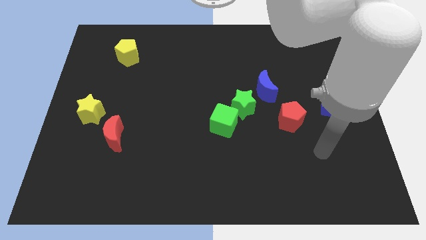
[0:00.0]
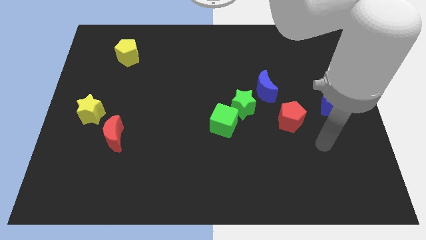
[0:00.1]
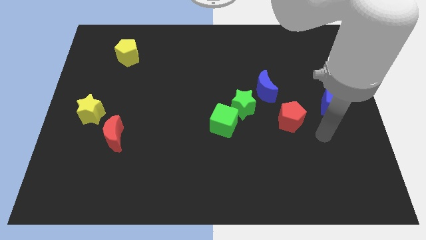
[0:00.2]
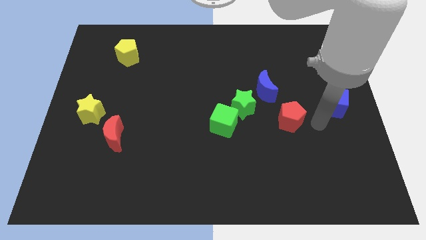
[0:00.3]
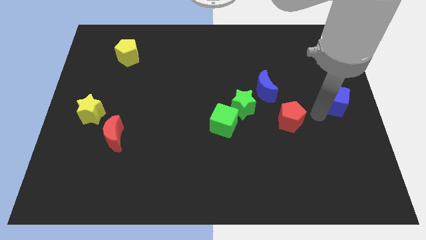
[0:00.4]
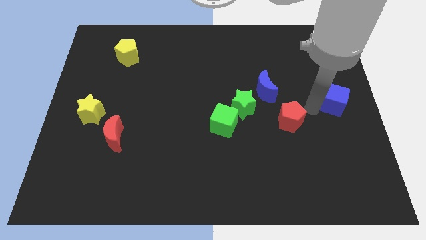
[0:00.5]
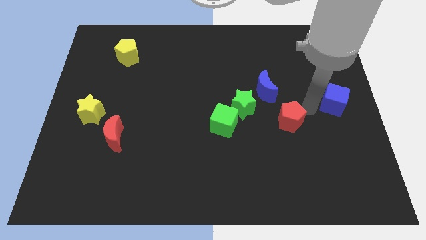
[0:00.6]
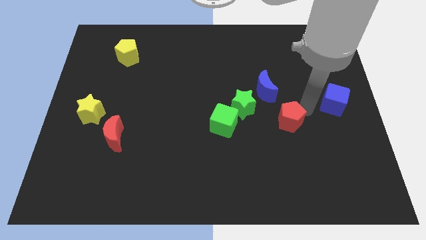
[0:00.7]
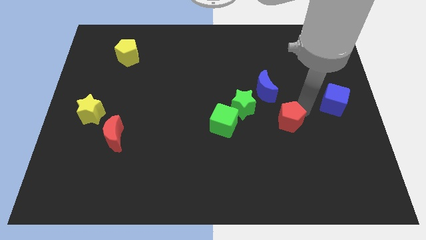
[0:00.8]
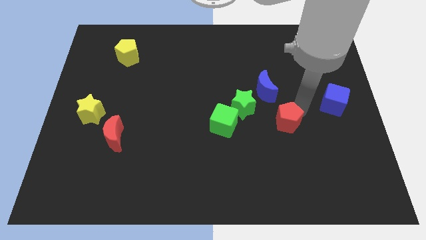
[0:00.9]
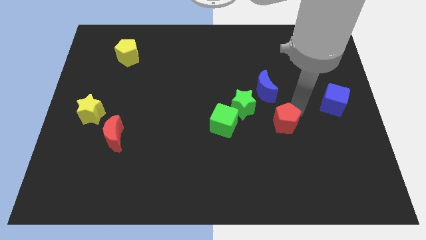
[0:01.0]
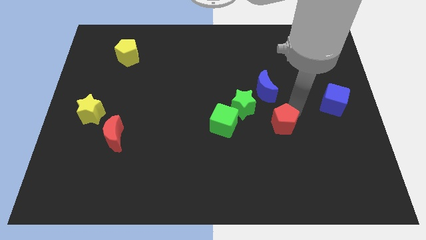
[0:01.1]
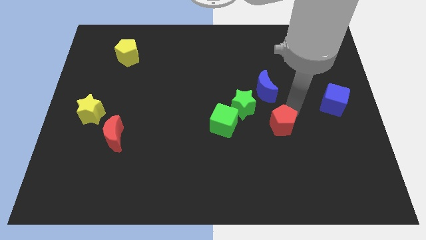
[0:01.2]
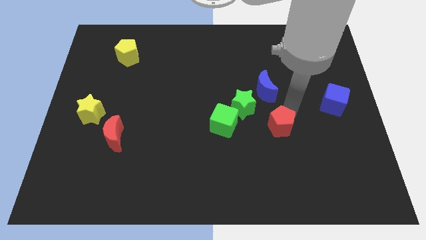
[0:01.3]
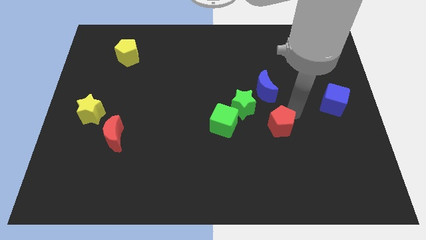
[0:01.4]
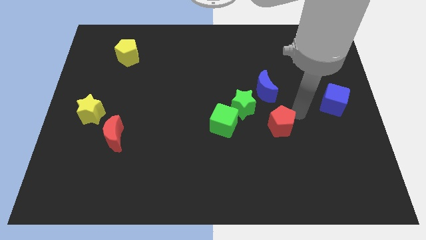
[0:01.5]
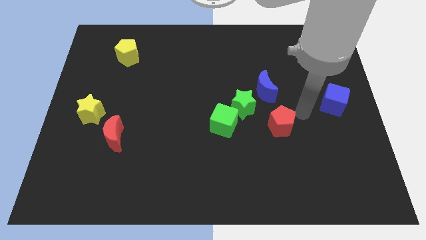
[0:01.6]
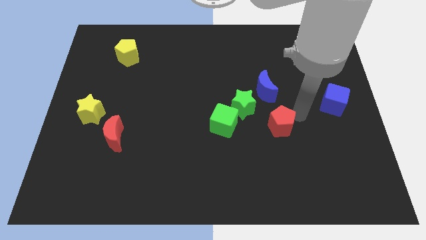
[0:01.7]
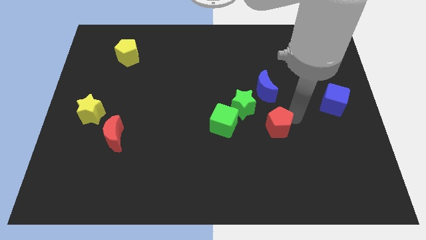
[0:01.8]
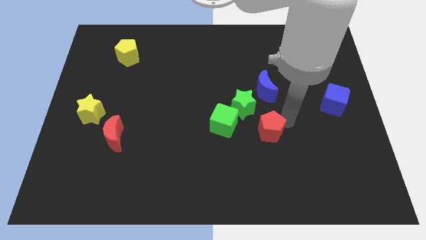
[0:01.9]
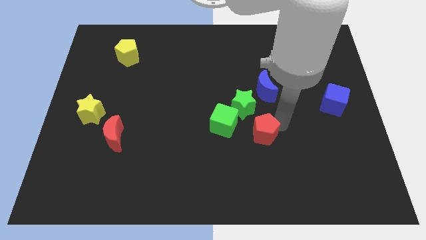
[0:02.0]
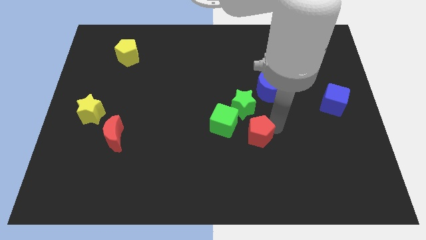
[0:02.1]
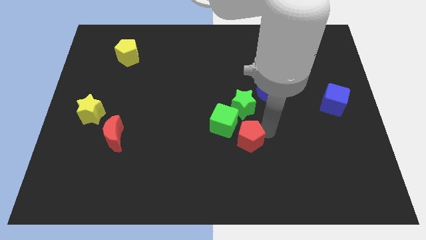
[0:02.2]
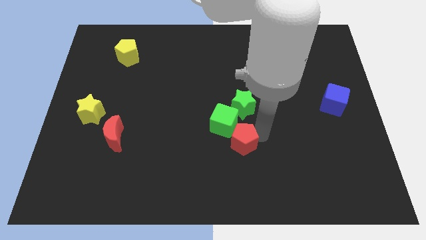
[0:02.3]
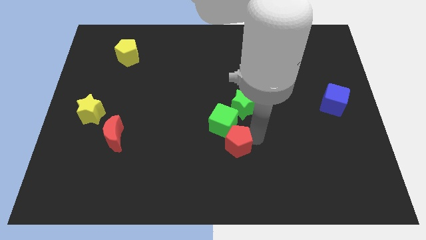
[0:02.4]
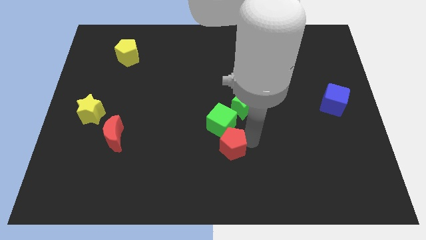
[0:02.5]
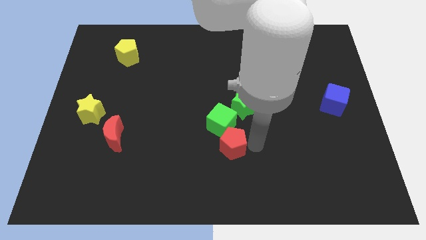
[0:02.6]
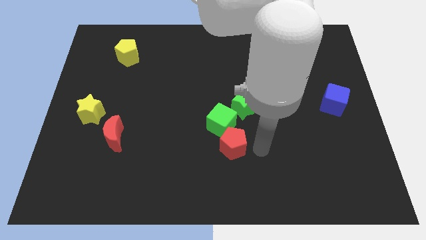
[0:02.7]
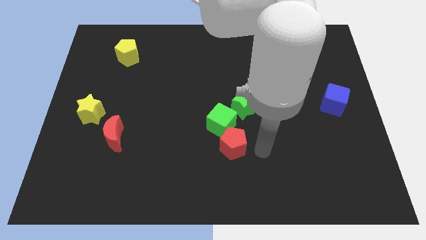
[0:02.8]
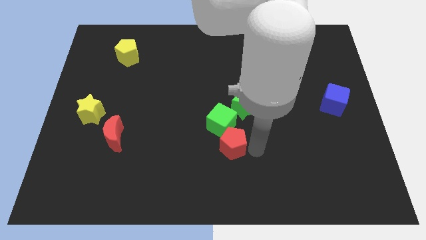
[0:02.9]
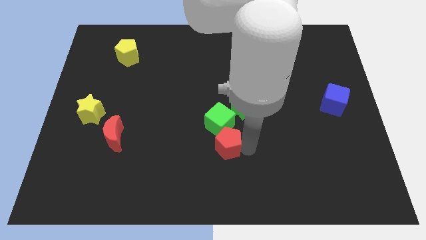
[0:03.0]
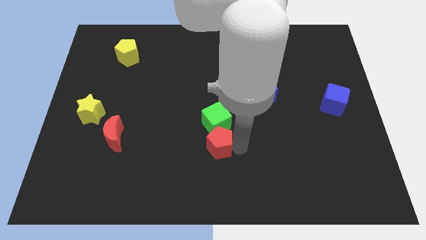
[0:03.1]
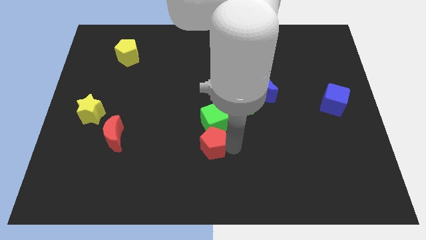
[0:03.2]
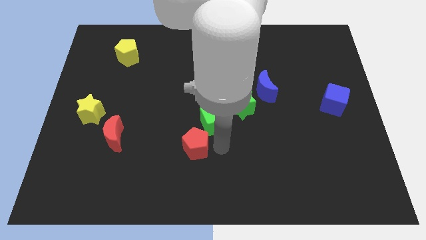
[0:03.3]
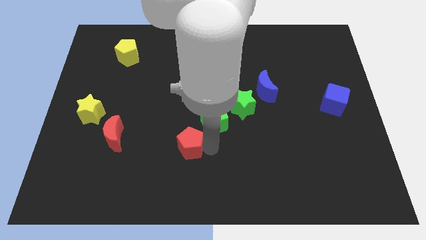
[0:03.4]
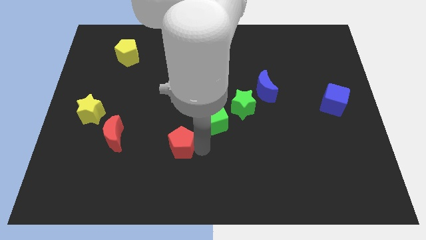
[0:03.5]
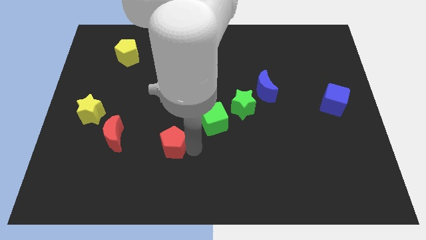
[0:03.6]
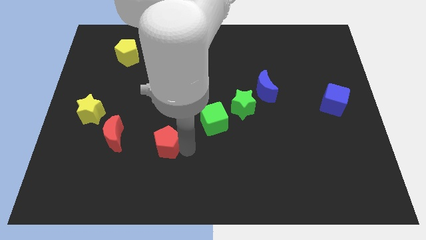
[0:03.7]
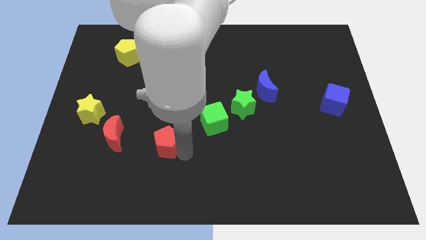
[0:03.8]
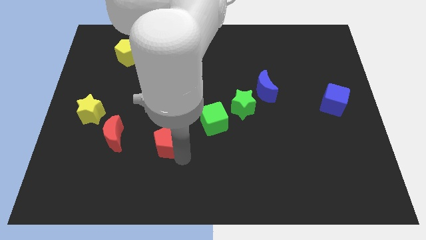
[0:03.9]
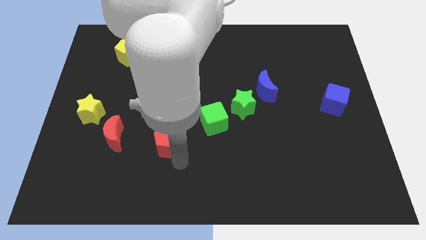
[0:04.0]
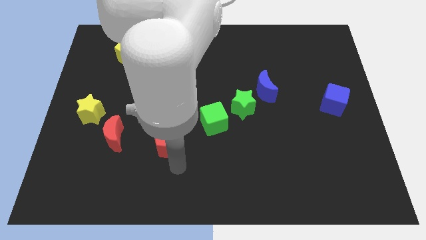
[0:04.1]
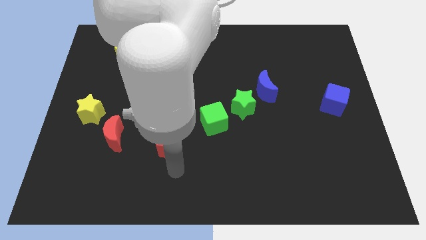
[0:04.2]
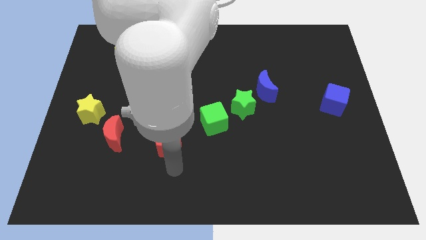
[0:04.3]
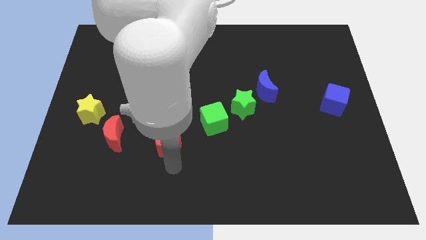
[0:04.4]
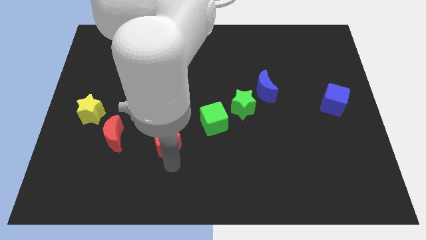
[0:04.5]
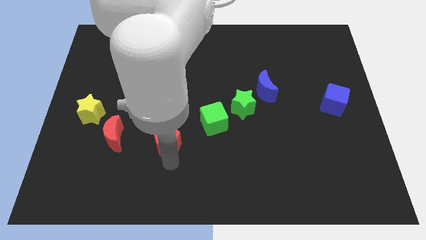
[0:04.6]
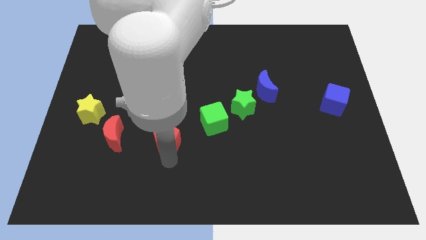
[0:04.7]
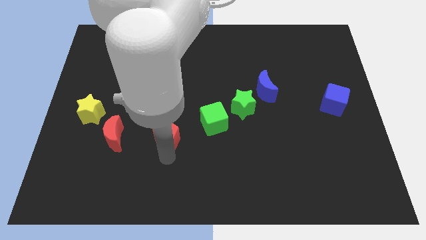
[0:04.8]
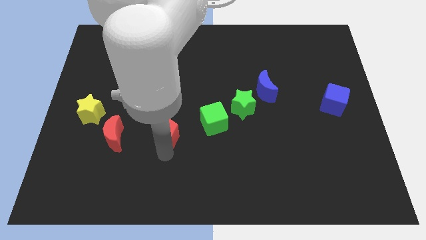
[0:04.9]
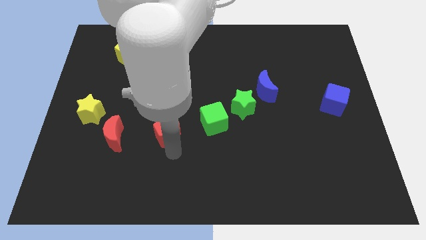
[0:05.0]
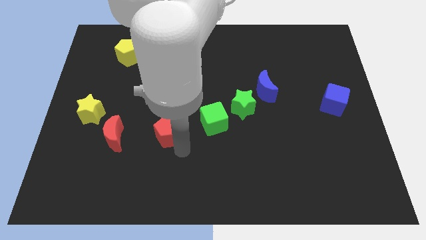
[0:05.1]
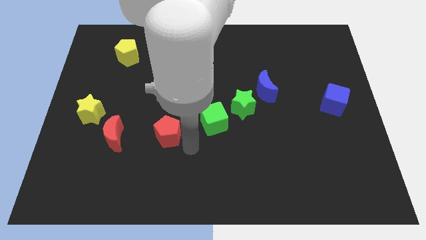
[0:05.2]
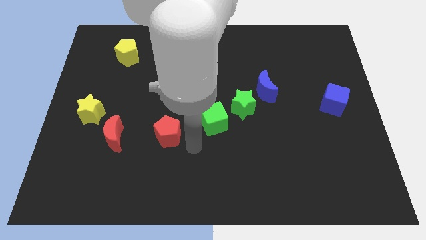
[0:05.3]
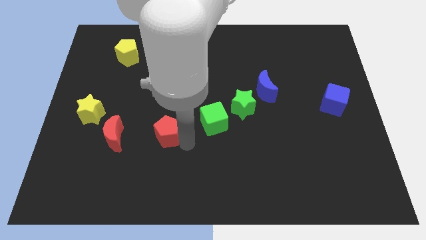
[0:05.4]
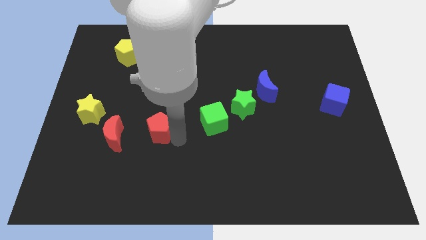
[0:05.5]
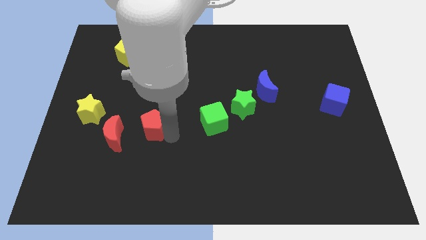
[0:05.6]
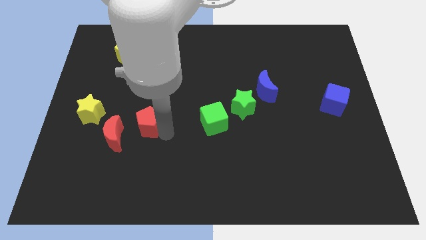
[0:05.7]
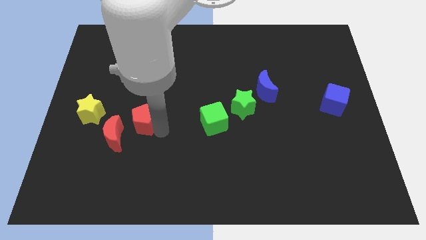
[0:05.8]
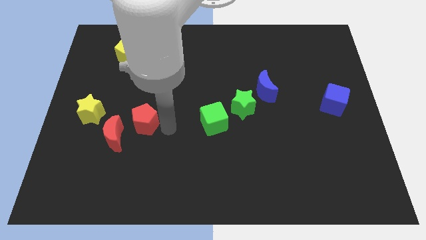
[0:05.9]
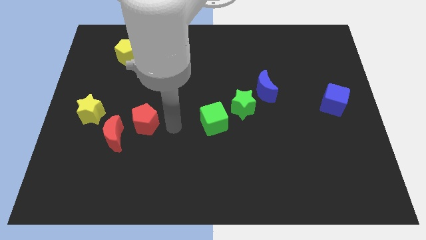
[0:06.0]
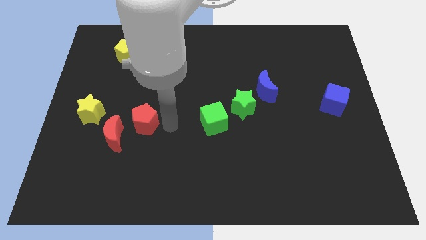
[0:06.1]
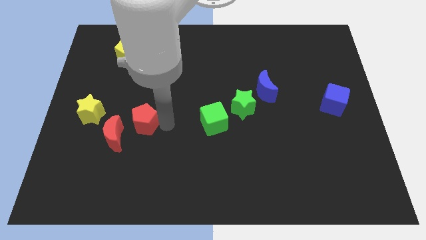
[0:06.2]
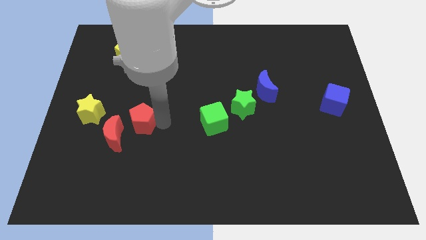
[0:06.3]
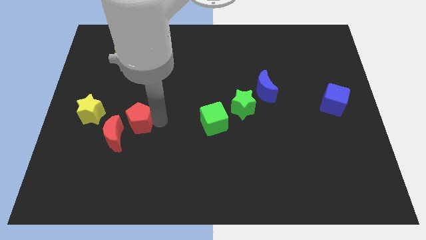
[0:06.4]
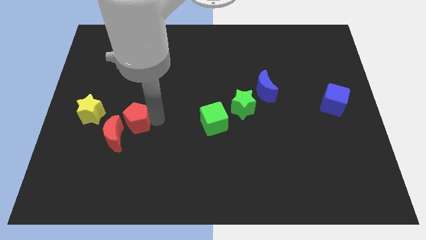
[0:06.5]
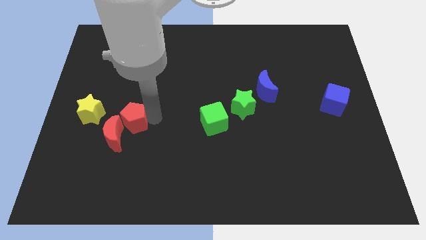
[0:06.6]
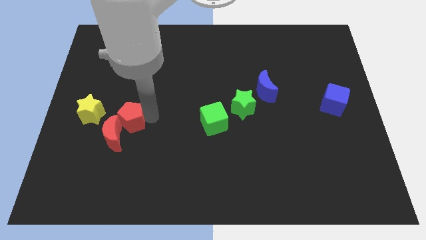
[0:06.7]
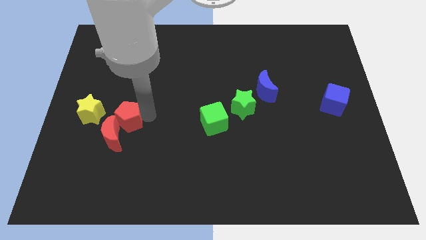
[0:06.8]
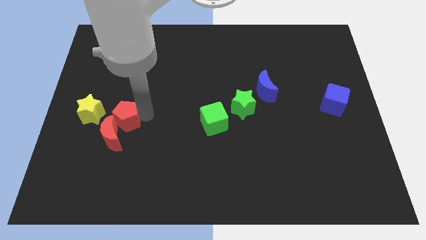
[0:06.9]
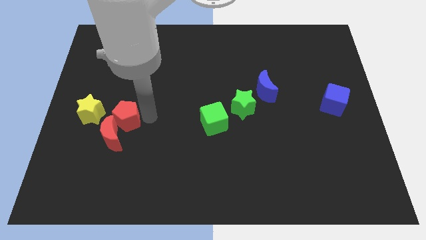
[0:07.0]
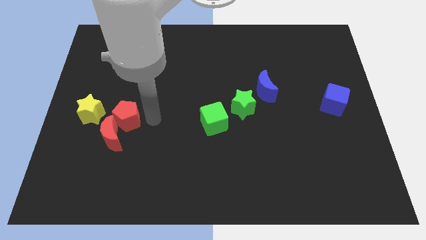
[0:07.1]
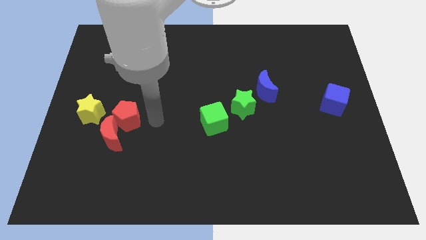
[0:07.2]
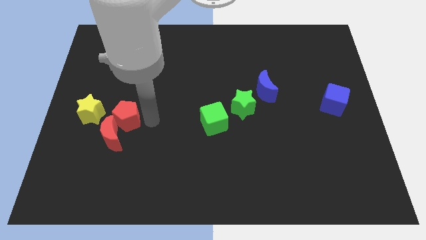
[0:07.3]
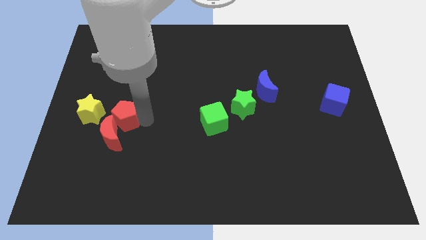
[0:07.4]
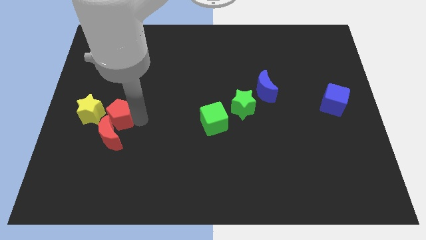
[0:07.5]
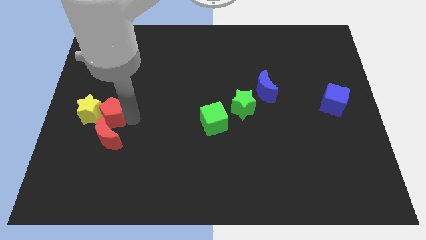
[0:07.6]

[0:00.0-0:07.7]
slide the red pentagon next to the yellow star
